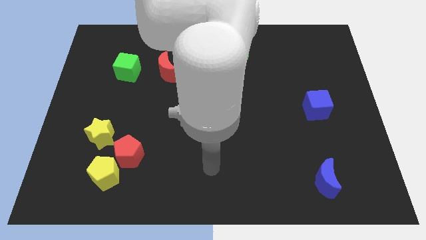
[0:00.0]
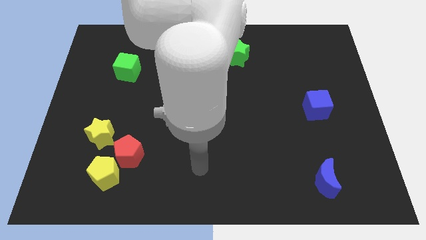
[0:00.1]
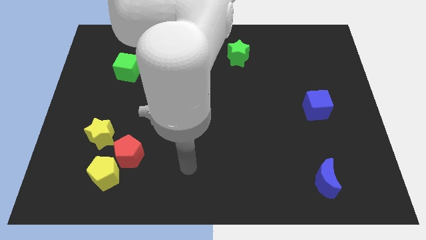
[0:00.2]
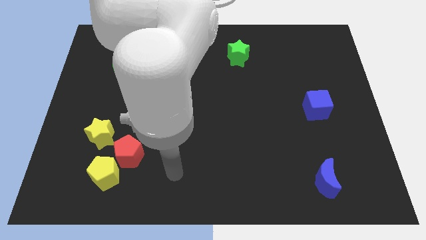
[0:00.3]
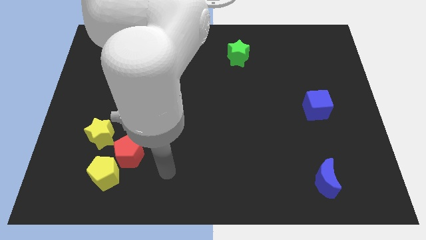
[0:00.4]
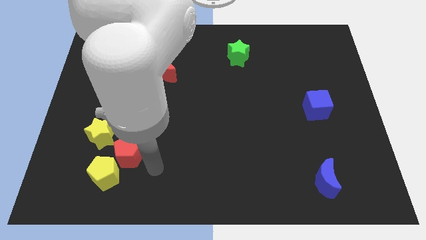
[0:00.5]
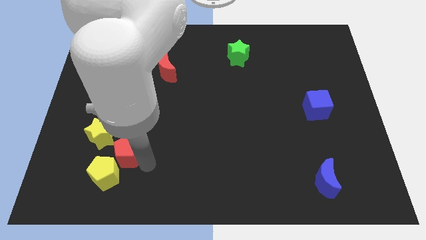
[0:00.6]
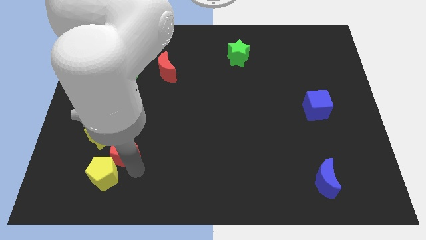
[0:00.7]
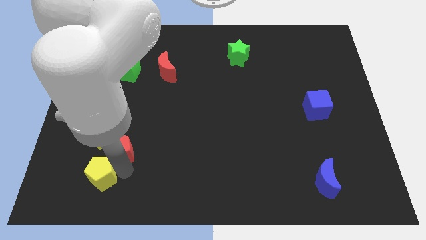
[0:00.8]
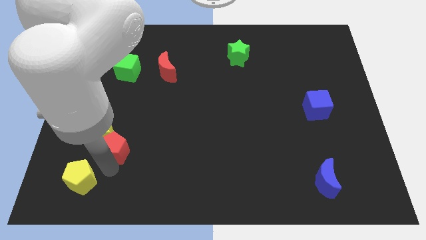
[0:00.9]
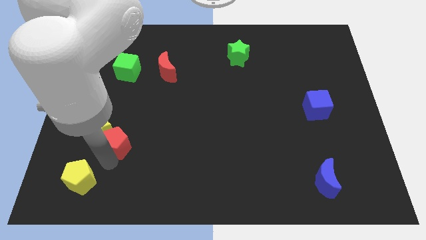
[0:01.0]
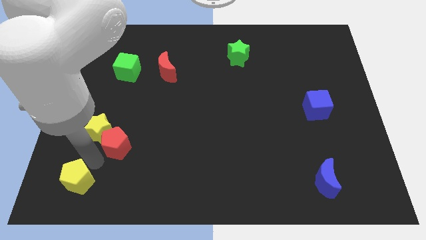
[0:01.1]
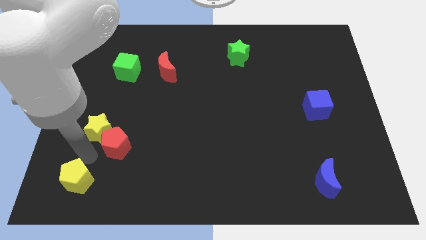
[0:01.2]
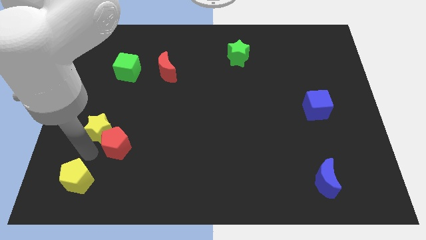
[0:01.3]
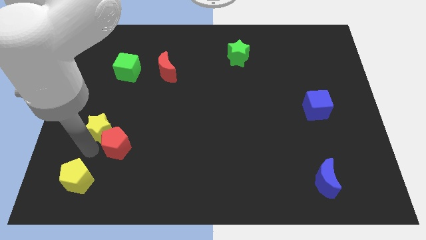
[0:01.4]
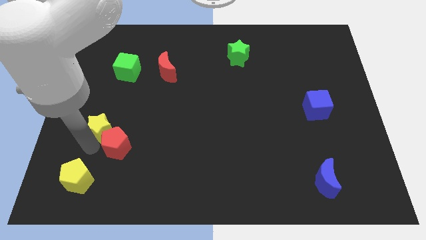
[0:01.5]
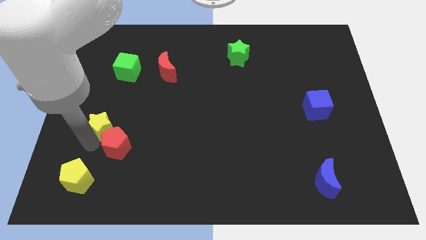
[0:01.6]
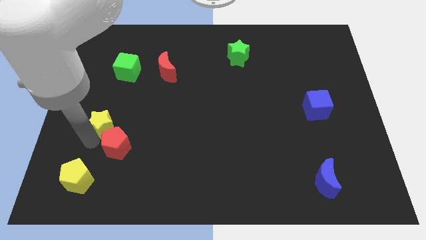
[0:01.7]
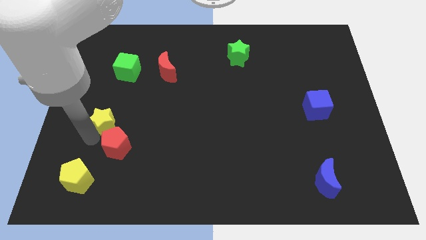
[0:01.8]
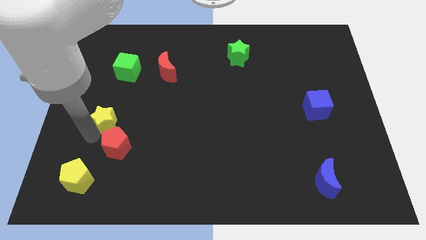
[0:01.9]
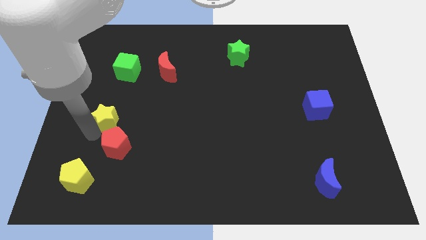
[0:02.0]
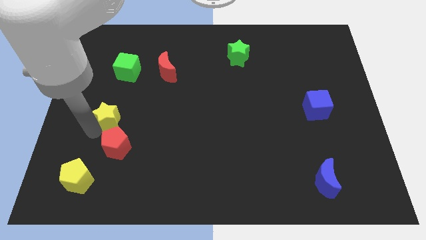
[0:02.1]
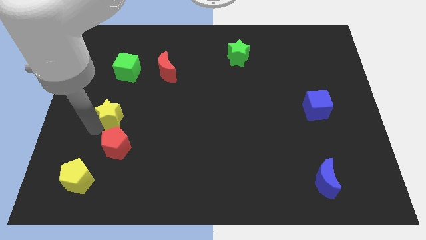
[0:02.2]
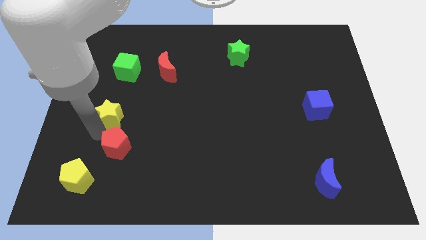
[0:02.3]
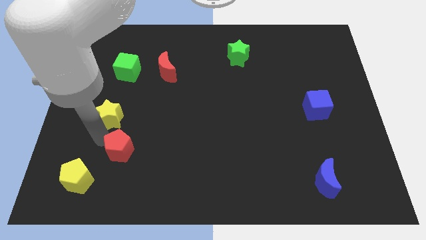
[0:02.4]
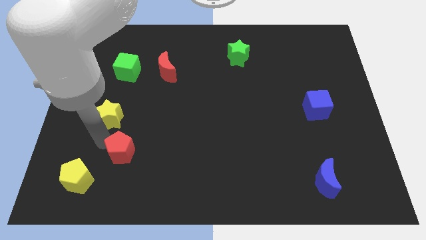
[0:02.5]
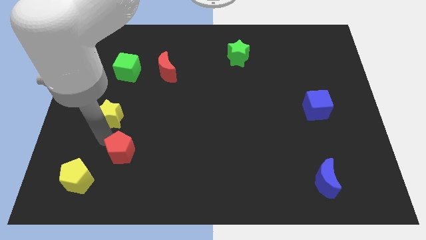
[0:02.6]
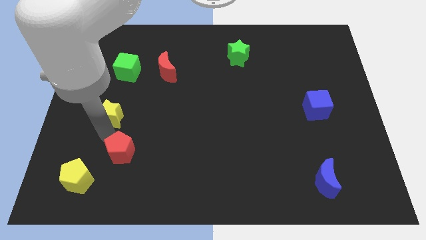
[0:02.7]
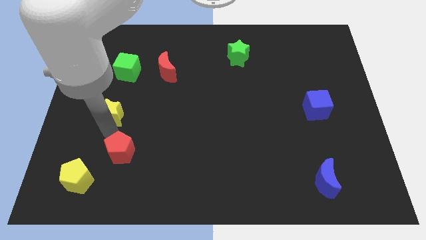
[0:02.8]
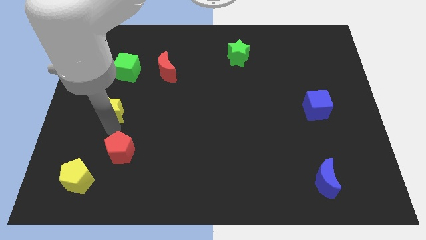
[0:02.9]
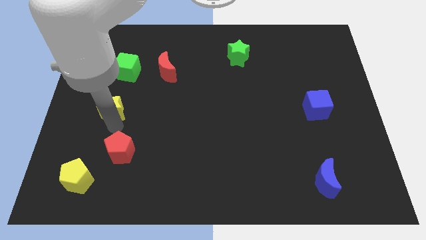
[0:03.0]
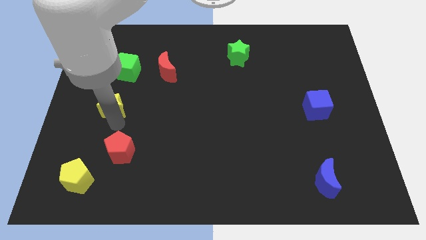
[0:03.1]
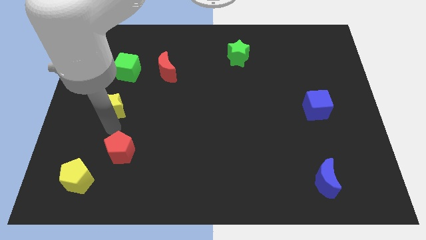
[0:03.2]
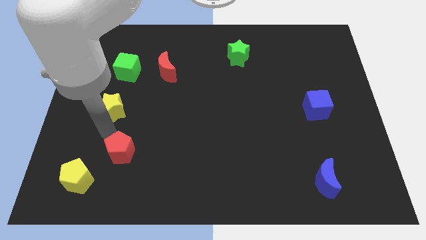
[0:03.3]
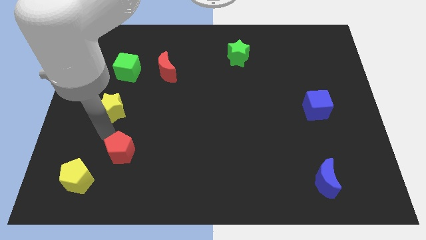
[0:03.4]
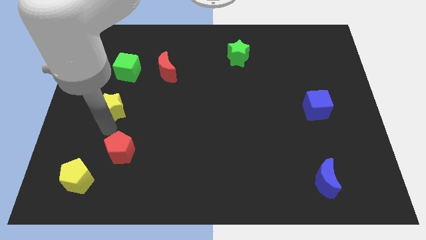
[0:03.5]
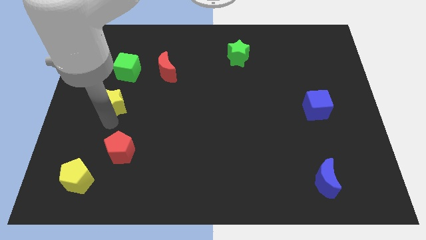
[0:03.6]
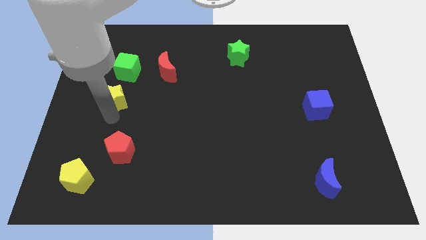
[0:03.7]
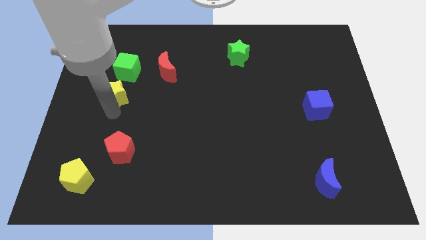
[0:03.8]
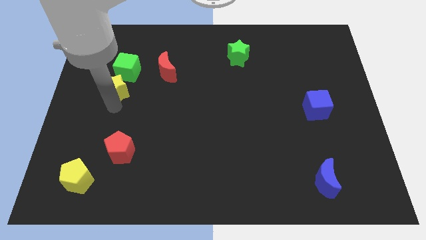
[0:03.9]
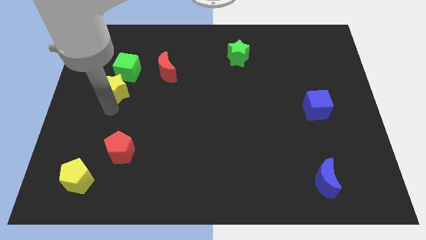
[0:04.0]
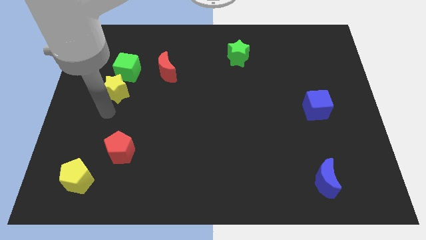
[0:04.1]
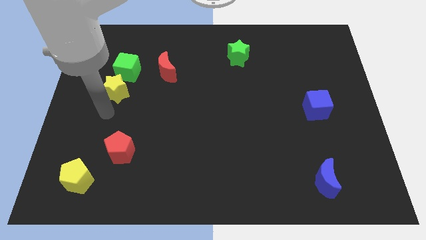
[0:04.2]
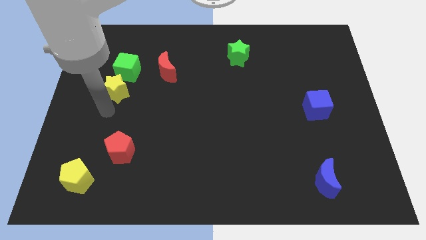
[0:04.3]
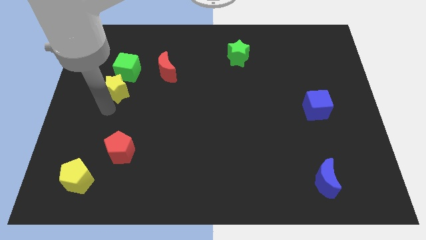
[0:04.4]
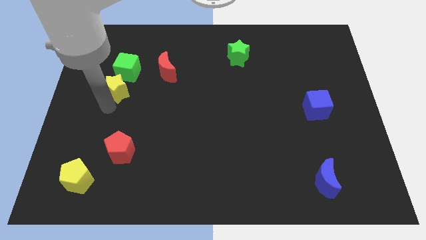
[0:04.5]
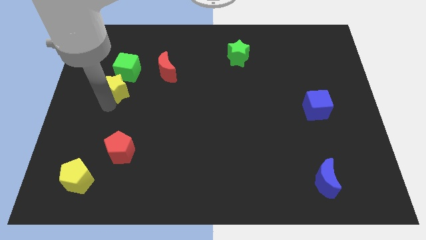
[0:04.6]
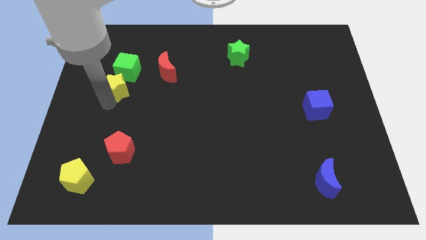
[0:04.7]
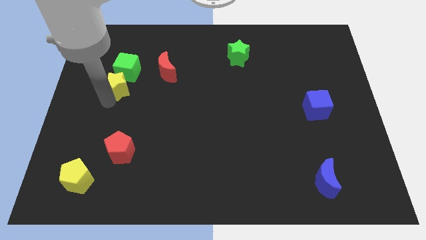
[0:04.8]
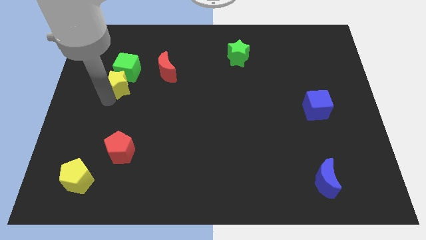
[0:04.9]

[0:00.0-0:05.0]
move the yellow star towards the green cube

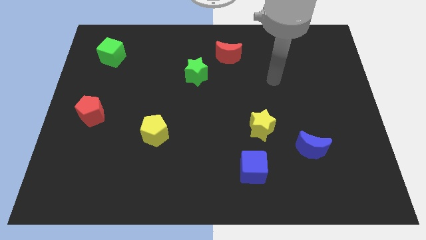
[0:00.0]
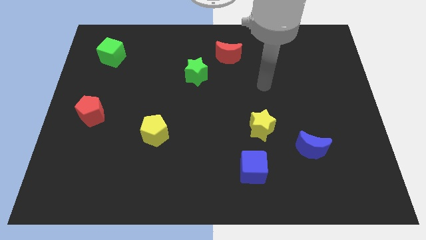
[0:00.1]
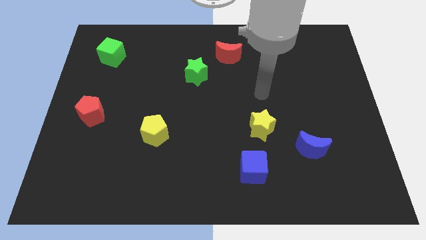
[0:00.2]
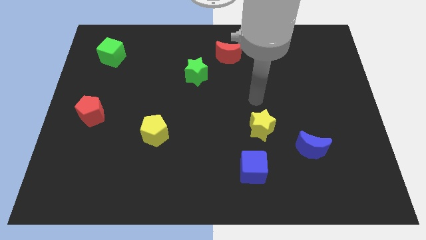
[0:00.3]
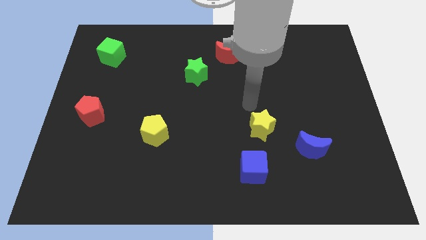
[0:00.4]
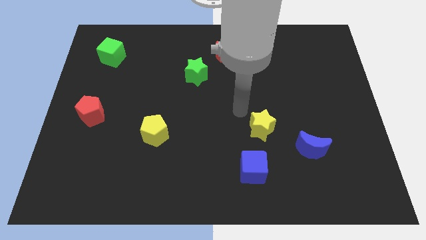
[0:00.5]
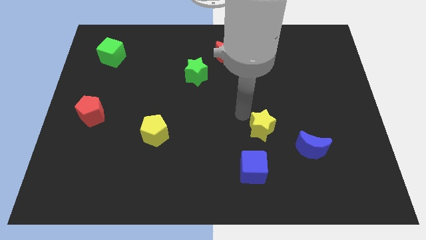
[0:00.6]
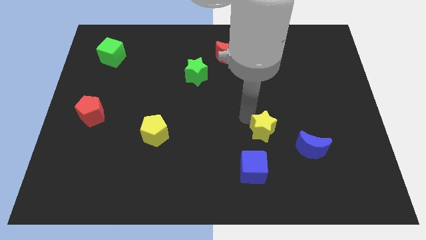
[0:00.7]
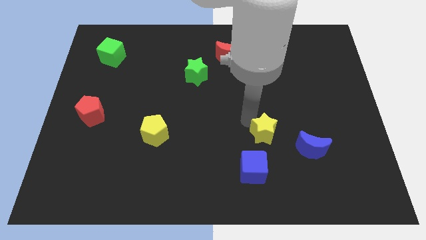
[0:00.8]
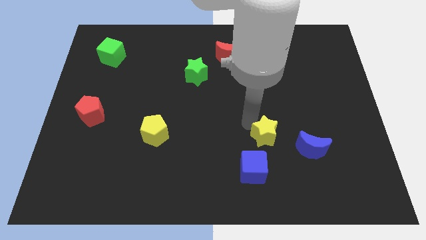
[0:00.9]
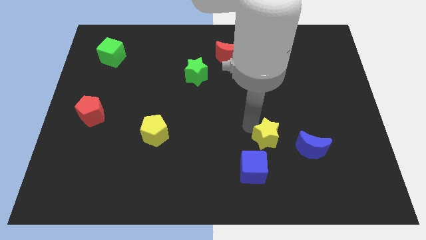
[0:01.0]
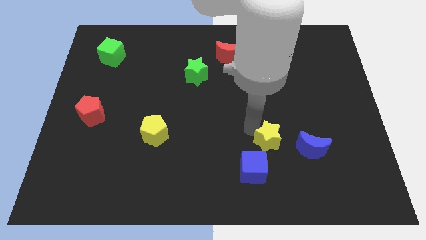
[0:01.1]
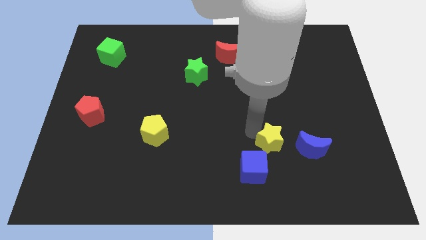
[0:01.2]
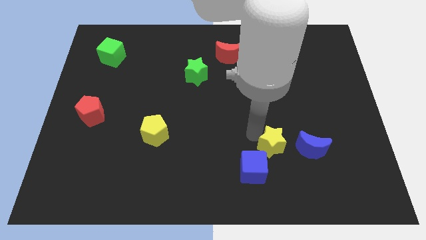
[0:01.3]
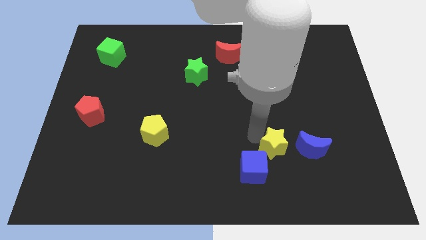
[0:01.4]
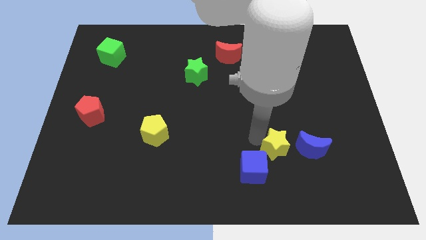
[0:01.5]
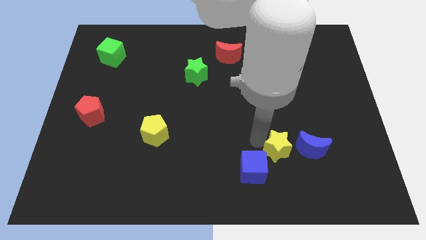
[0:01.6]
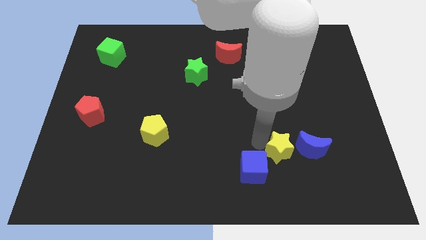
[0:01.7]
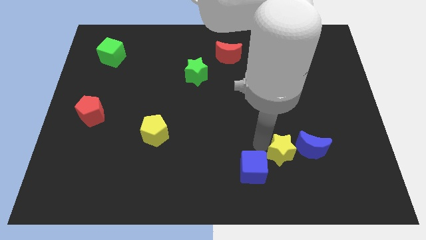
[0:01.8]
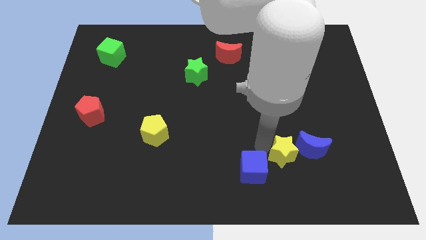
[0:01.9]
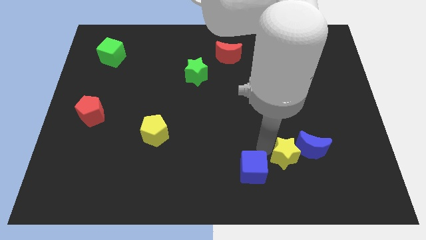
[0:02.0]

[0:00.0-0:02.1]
slide the yellow star towards the blue moon

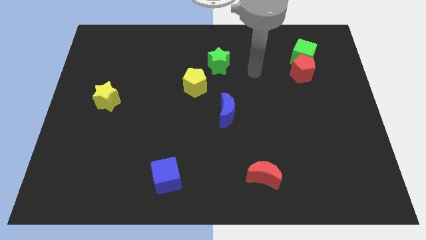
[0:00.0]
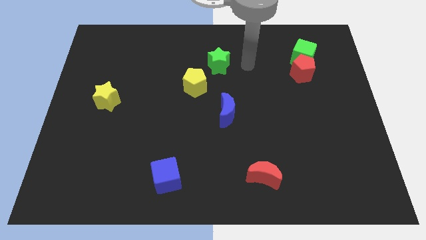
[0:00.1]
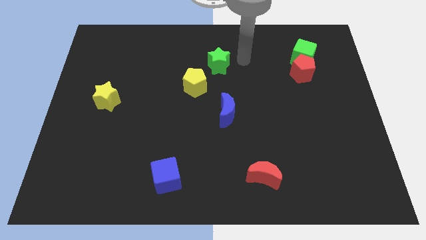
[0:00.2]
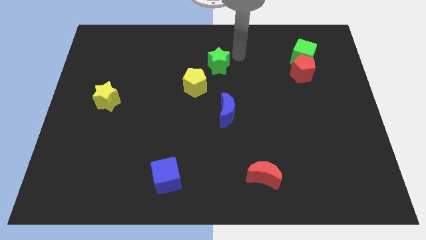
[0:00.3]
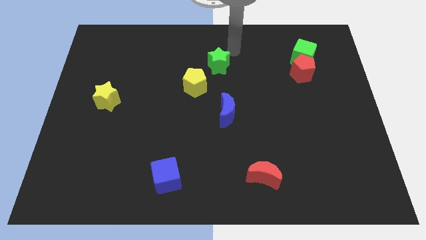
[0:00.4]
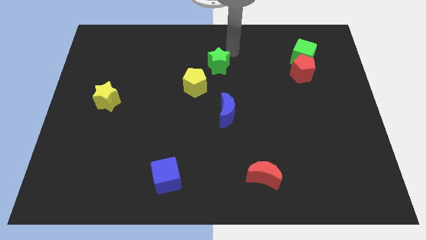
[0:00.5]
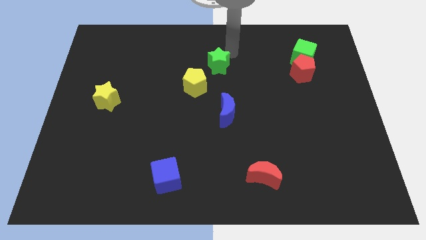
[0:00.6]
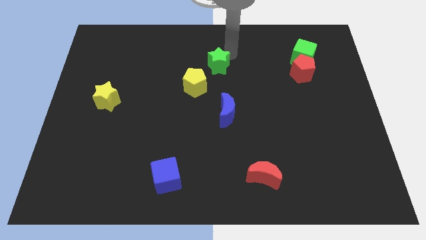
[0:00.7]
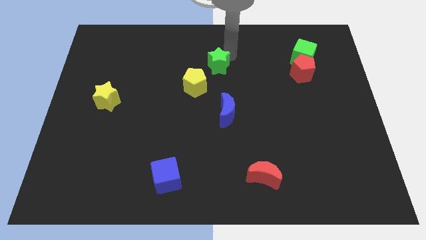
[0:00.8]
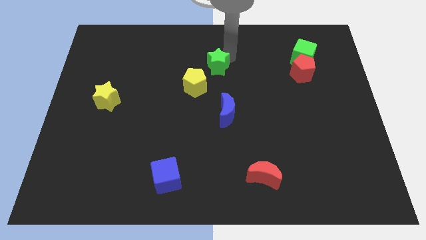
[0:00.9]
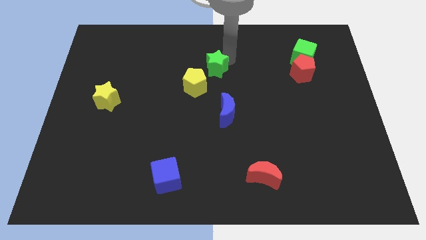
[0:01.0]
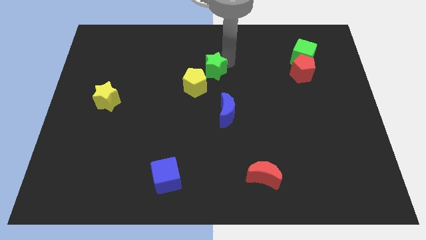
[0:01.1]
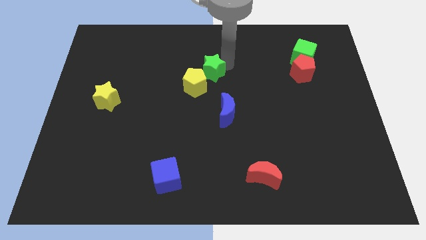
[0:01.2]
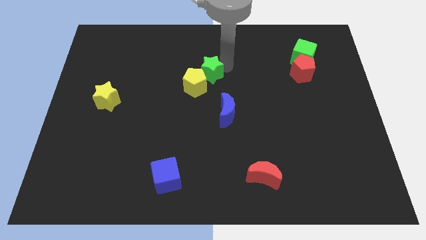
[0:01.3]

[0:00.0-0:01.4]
put the green star to the yellow pentagon
